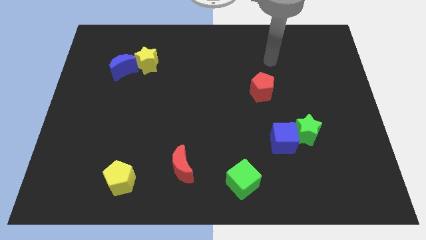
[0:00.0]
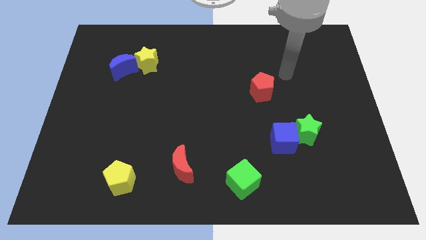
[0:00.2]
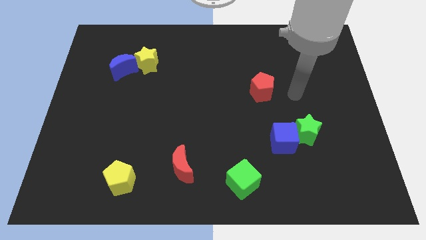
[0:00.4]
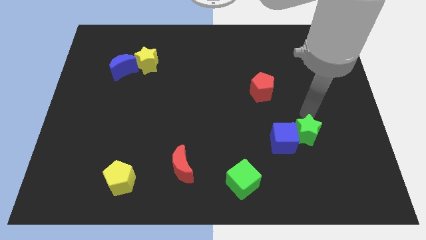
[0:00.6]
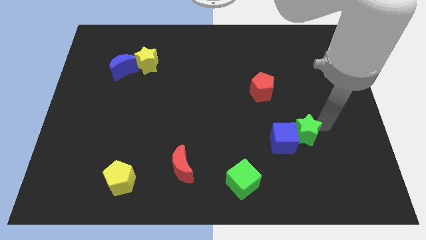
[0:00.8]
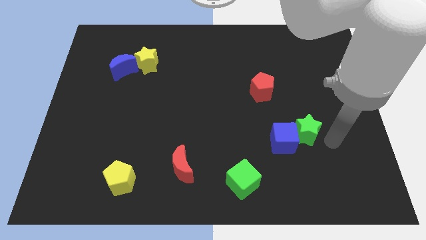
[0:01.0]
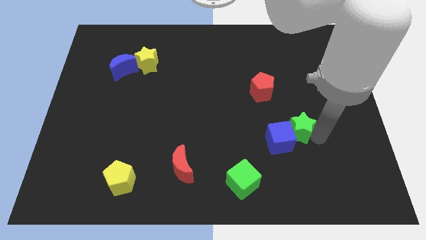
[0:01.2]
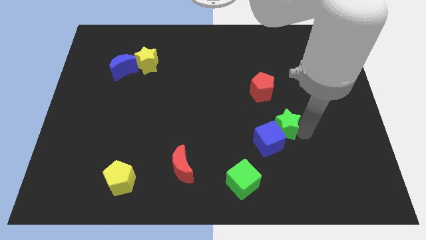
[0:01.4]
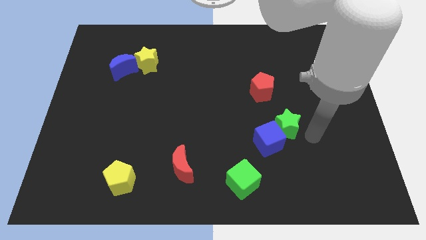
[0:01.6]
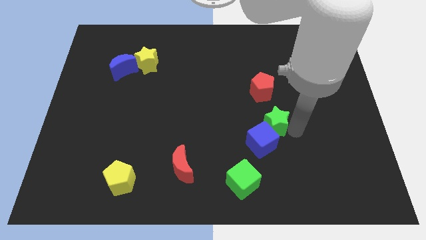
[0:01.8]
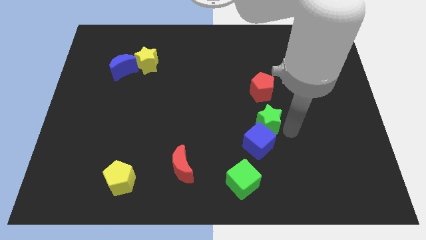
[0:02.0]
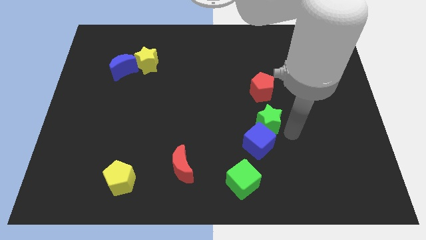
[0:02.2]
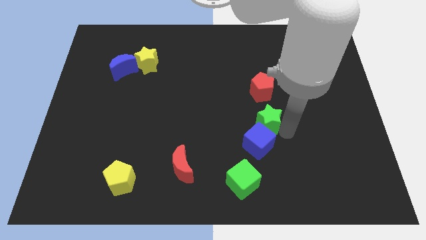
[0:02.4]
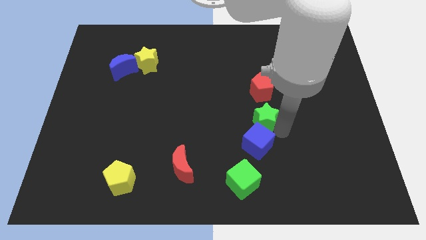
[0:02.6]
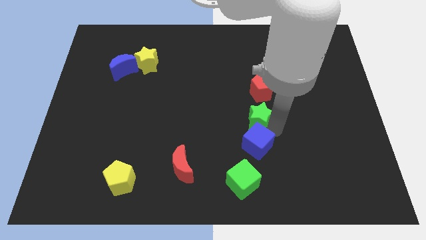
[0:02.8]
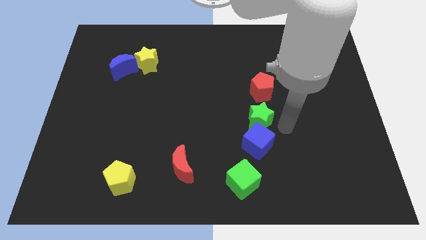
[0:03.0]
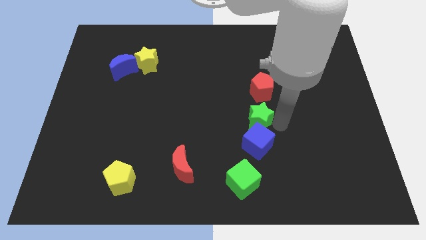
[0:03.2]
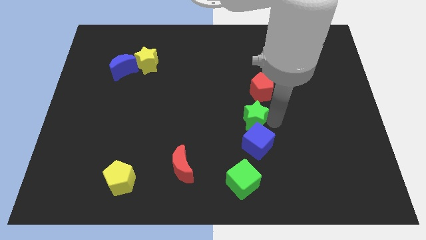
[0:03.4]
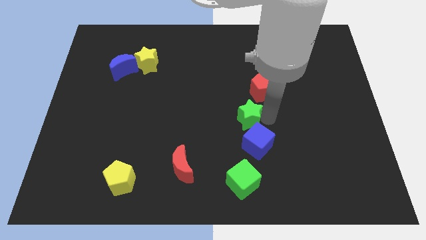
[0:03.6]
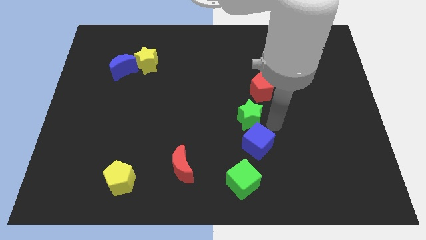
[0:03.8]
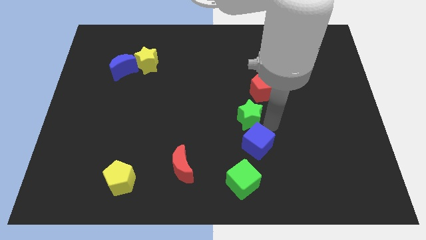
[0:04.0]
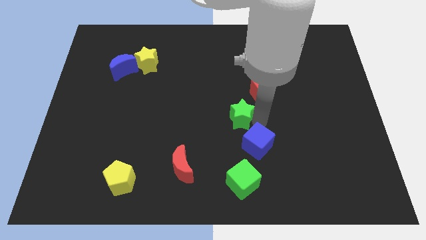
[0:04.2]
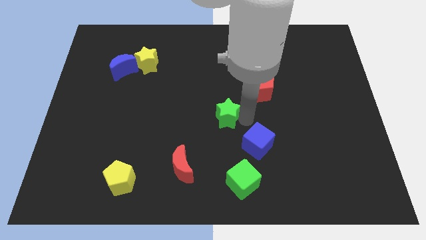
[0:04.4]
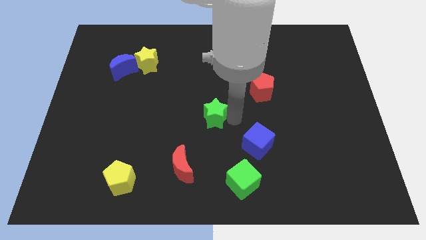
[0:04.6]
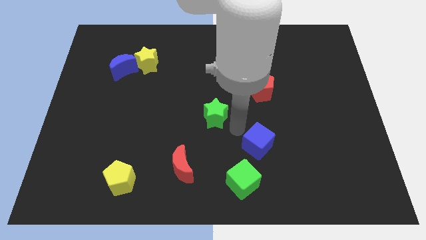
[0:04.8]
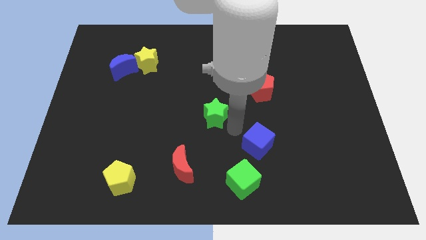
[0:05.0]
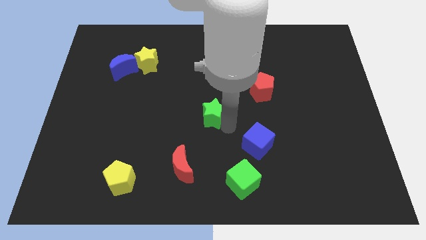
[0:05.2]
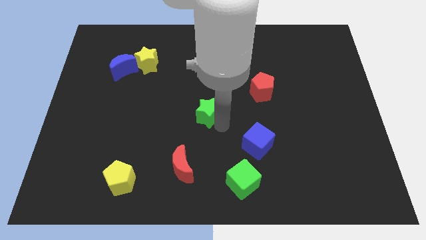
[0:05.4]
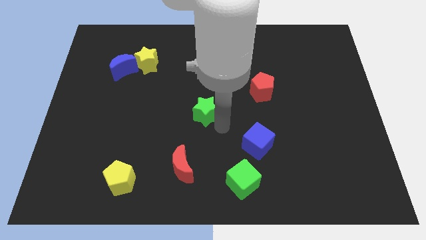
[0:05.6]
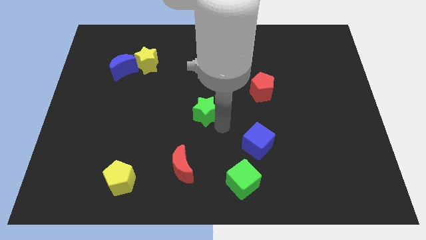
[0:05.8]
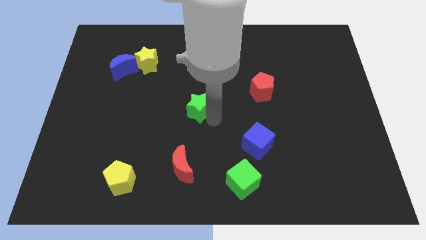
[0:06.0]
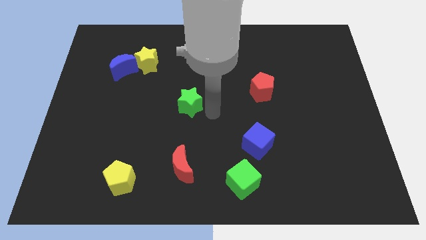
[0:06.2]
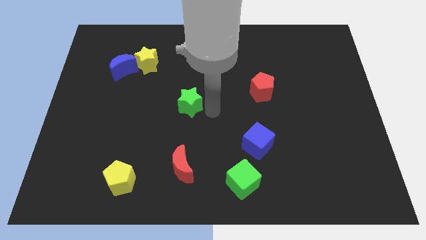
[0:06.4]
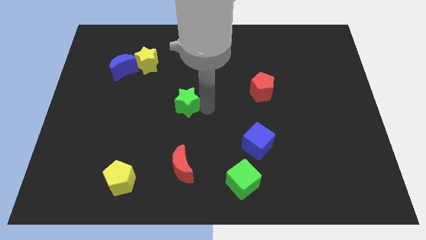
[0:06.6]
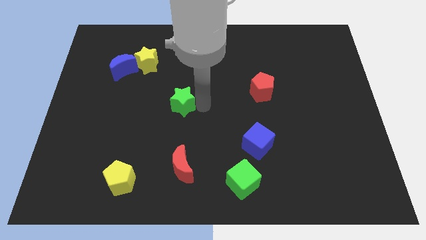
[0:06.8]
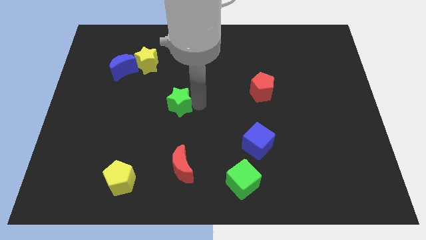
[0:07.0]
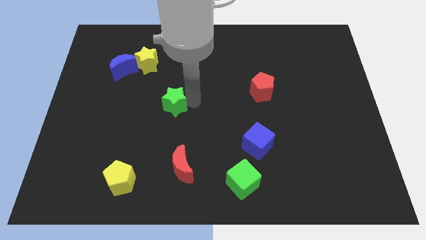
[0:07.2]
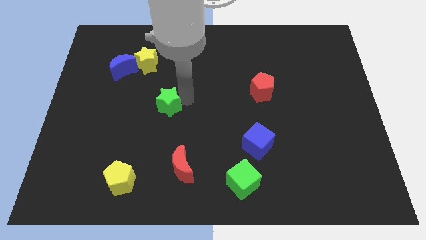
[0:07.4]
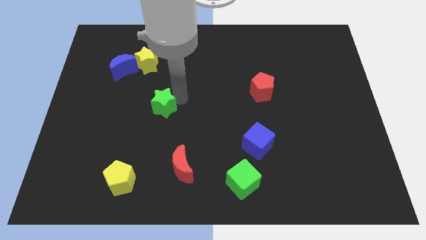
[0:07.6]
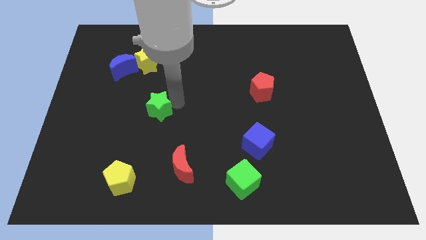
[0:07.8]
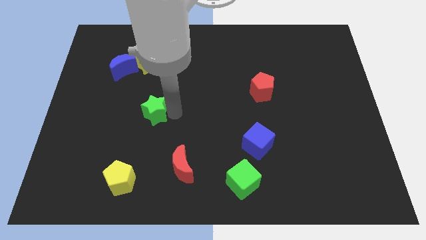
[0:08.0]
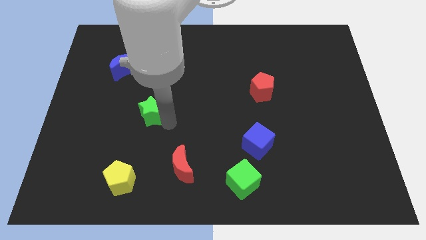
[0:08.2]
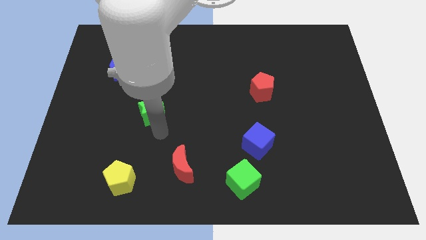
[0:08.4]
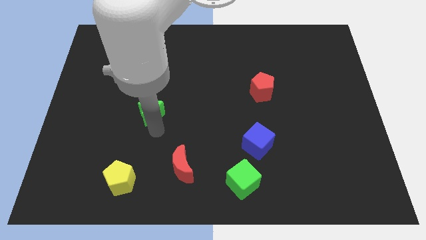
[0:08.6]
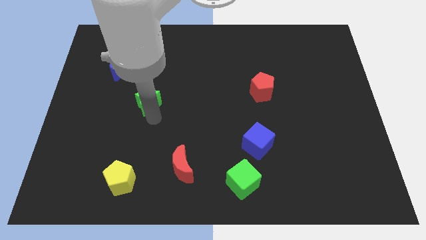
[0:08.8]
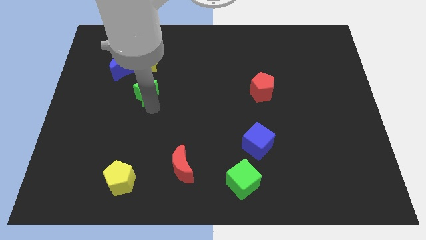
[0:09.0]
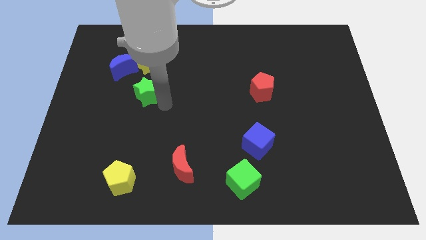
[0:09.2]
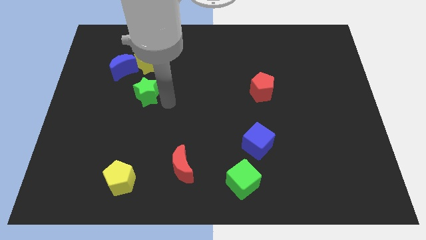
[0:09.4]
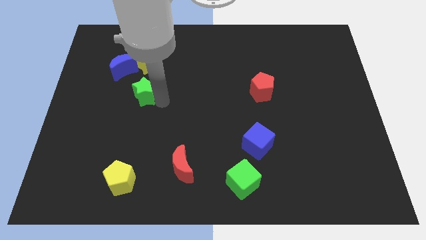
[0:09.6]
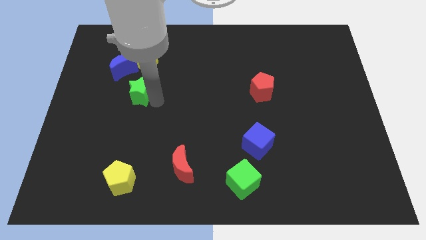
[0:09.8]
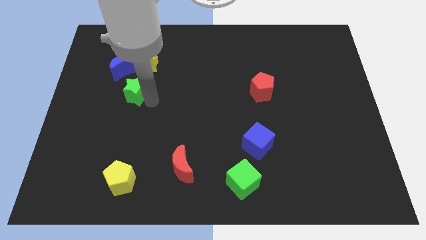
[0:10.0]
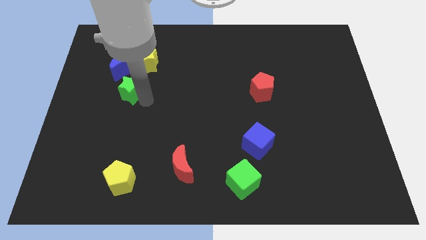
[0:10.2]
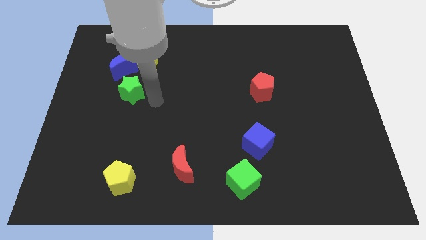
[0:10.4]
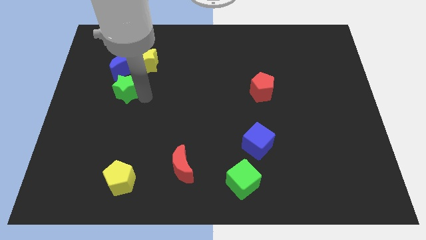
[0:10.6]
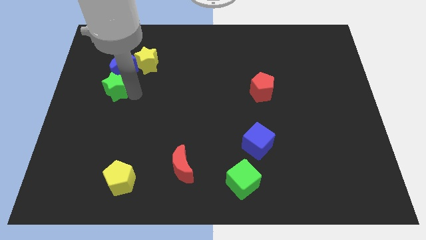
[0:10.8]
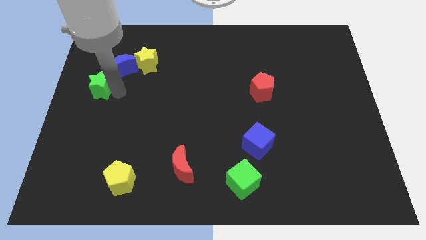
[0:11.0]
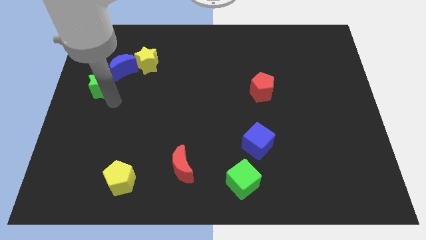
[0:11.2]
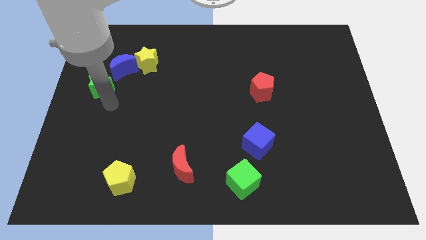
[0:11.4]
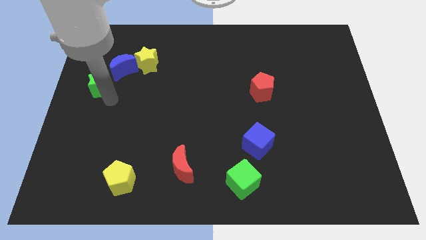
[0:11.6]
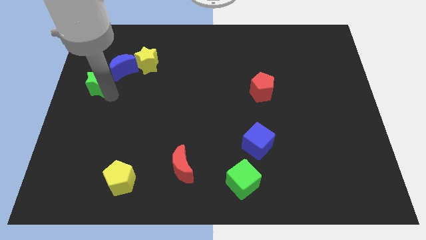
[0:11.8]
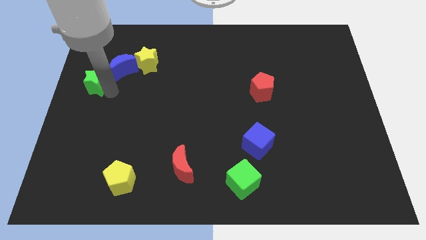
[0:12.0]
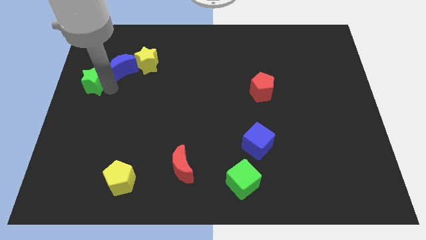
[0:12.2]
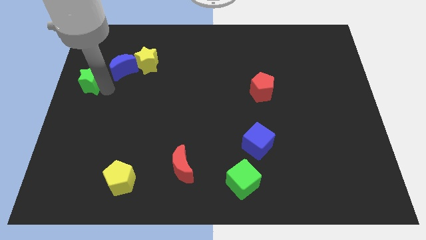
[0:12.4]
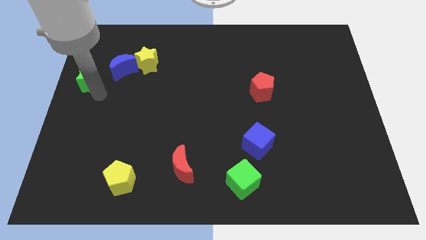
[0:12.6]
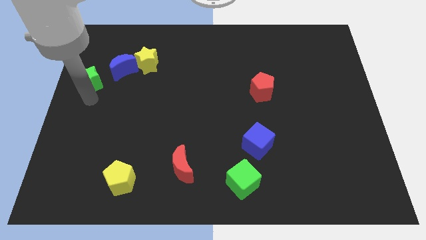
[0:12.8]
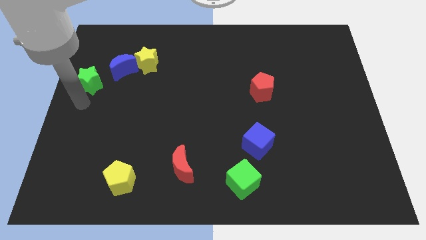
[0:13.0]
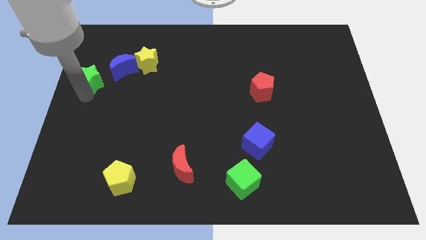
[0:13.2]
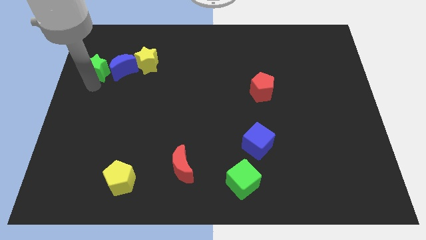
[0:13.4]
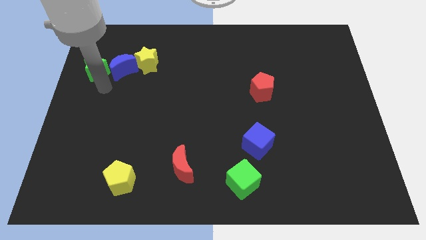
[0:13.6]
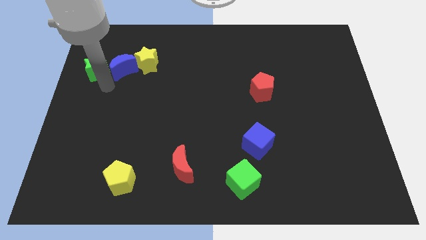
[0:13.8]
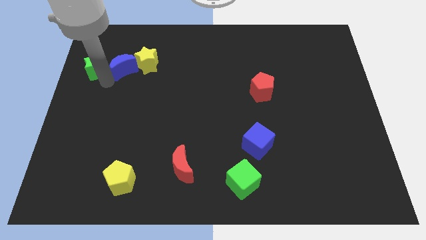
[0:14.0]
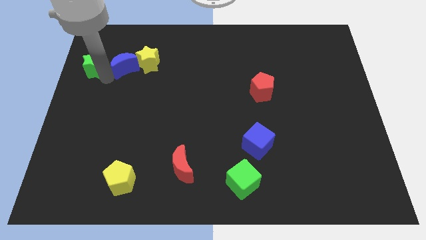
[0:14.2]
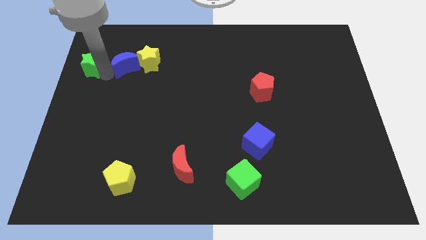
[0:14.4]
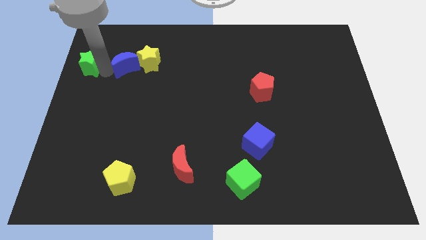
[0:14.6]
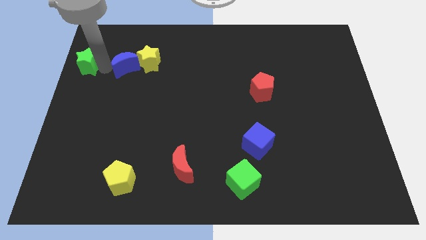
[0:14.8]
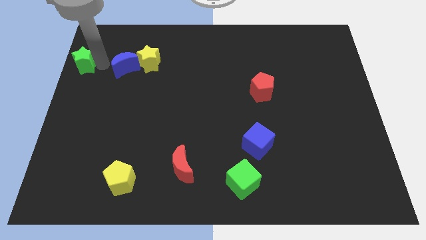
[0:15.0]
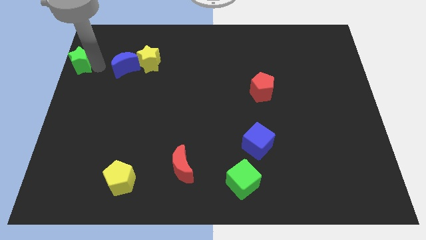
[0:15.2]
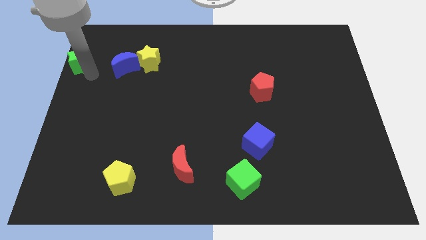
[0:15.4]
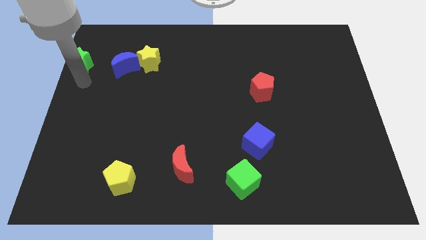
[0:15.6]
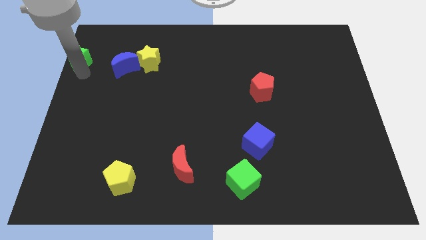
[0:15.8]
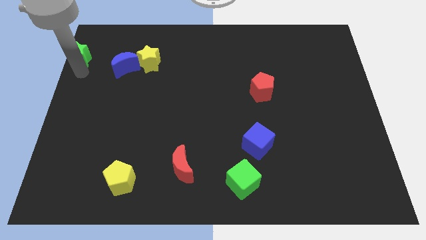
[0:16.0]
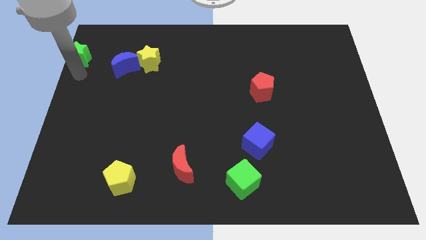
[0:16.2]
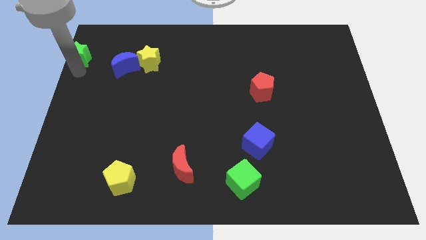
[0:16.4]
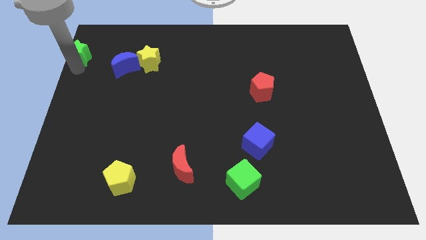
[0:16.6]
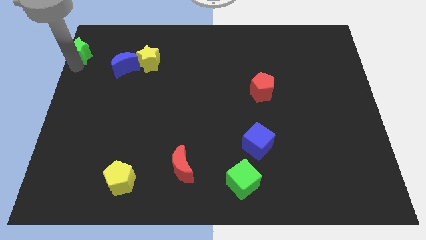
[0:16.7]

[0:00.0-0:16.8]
move the green star to the top left
